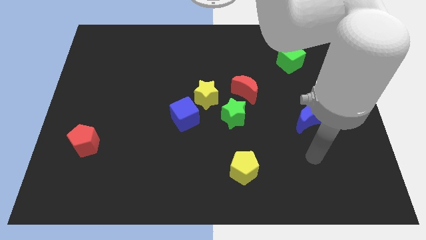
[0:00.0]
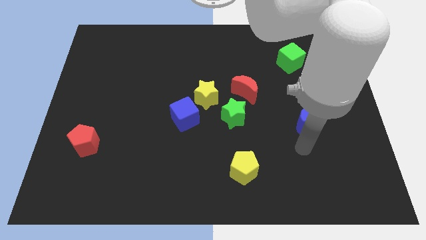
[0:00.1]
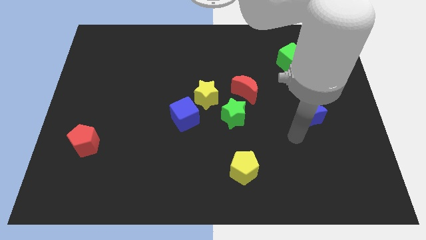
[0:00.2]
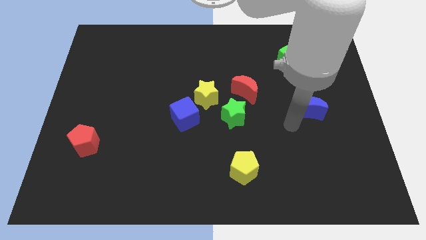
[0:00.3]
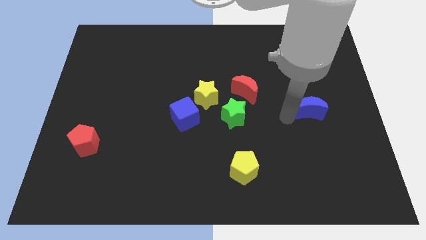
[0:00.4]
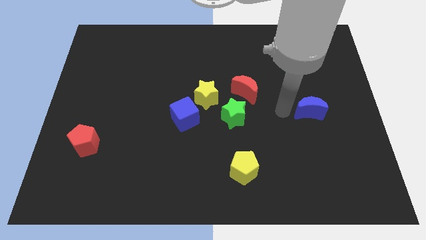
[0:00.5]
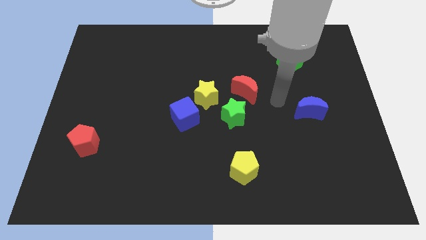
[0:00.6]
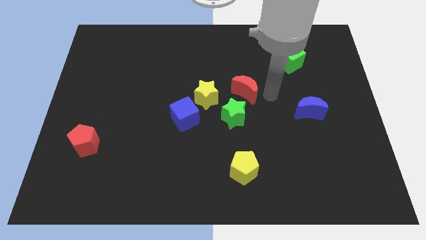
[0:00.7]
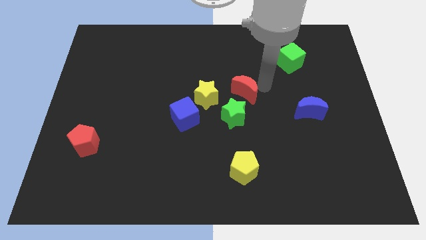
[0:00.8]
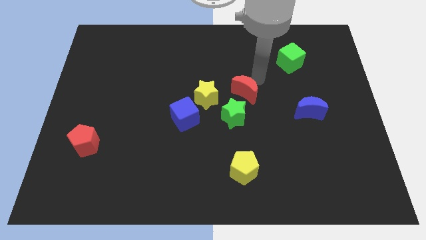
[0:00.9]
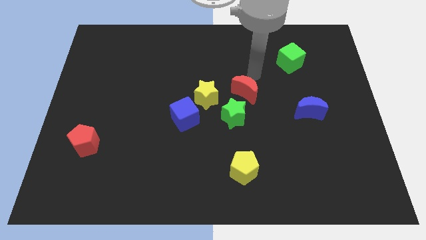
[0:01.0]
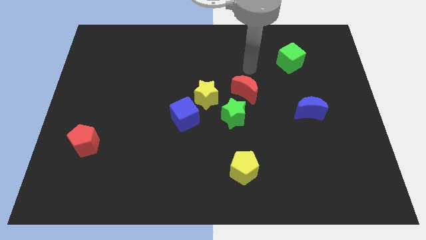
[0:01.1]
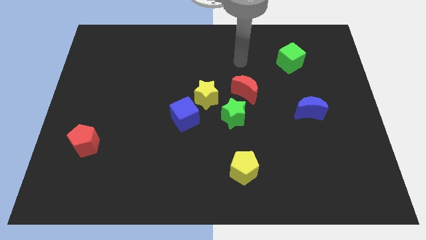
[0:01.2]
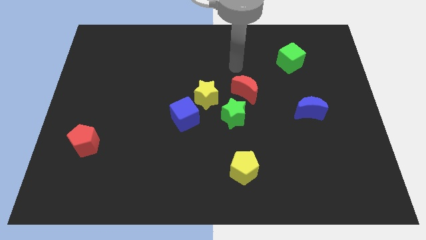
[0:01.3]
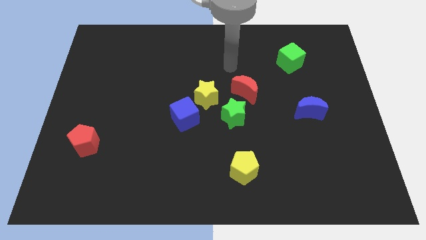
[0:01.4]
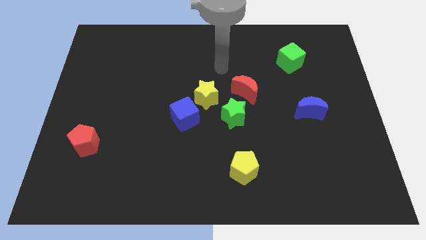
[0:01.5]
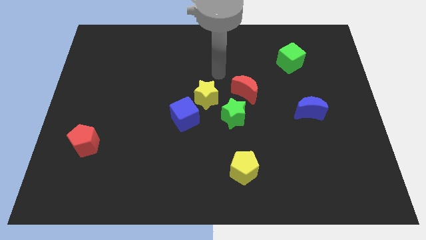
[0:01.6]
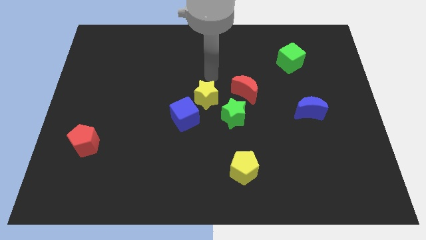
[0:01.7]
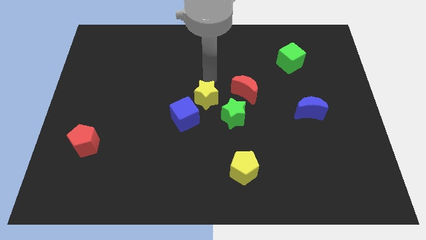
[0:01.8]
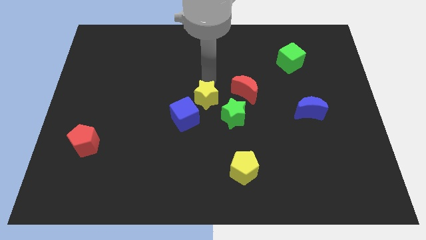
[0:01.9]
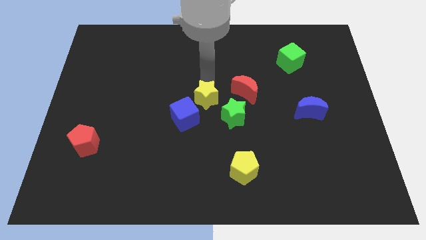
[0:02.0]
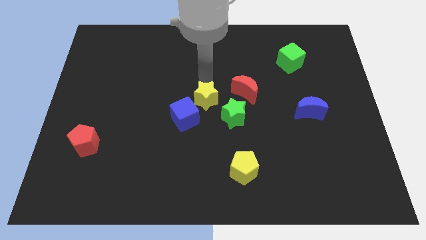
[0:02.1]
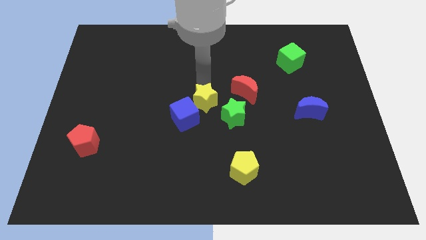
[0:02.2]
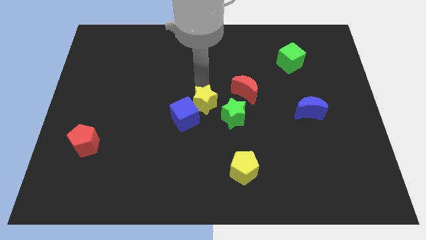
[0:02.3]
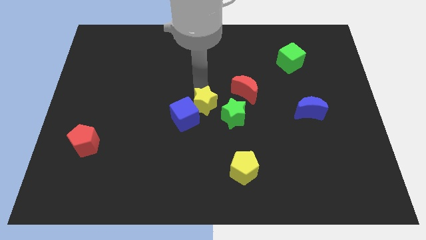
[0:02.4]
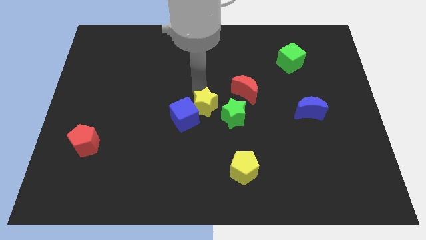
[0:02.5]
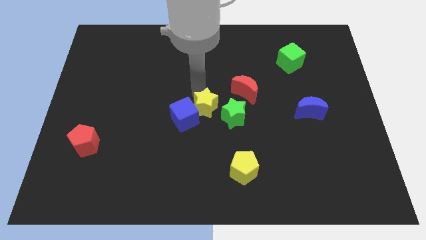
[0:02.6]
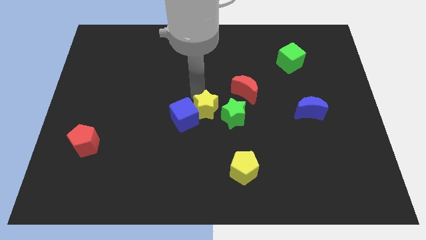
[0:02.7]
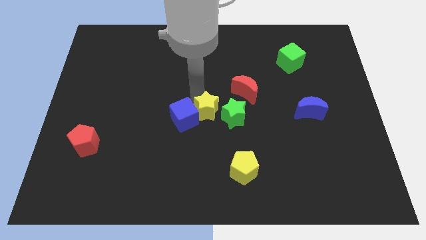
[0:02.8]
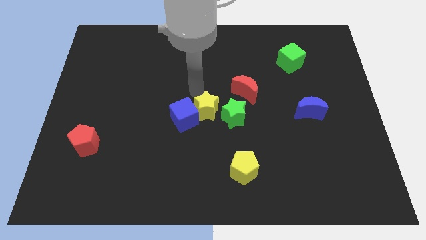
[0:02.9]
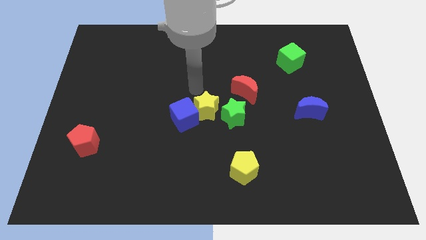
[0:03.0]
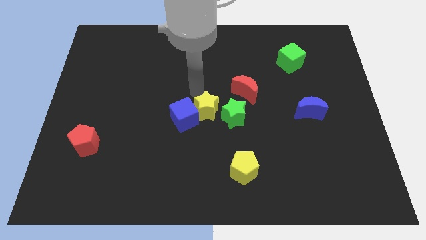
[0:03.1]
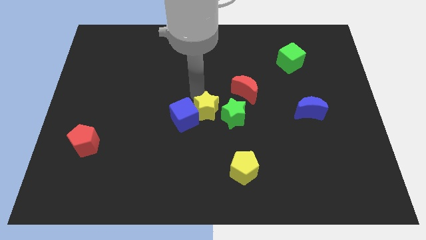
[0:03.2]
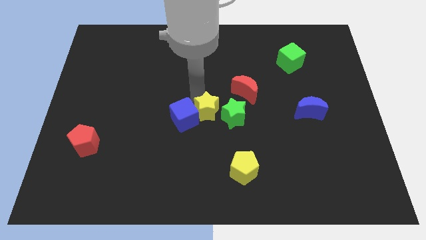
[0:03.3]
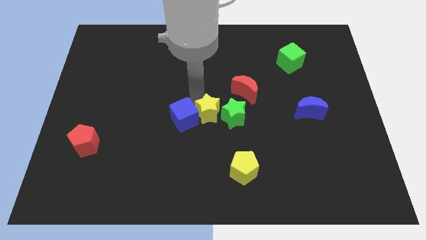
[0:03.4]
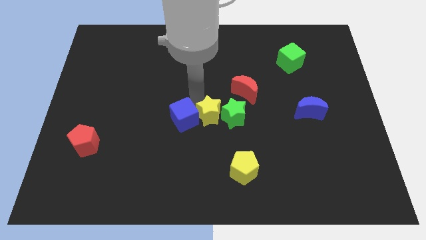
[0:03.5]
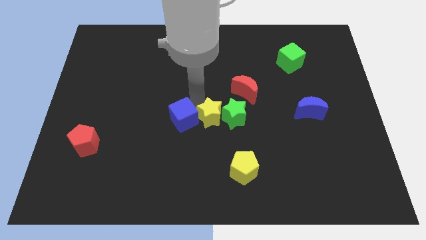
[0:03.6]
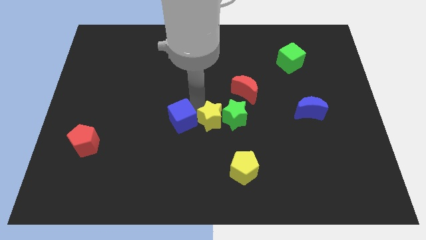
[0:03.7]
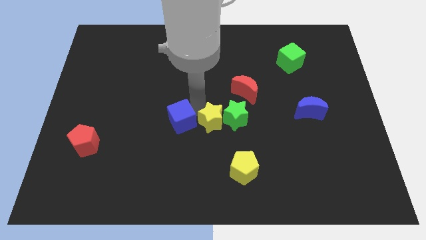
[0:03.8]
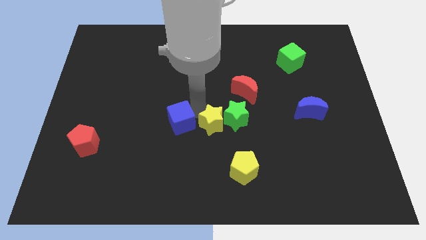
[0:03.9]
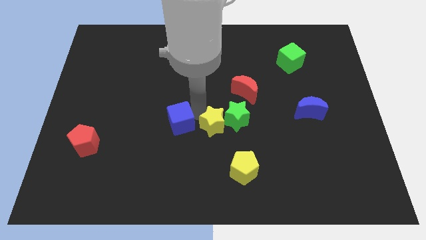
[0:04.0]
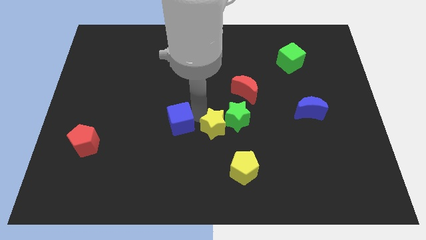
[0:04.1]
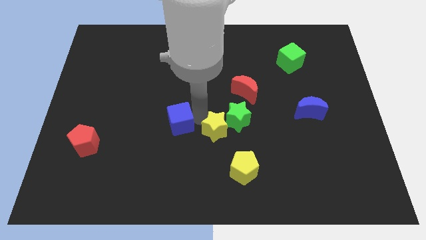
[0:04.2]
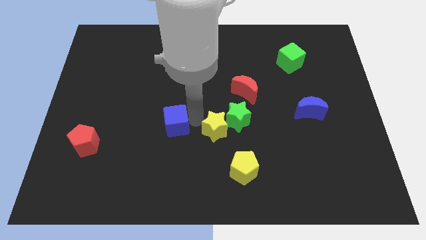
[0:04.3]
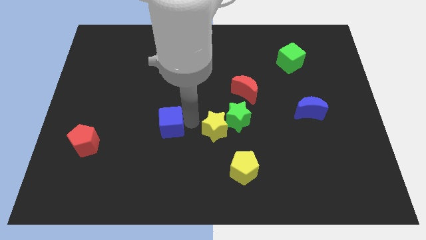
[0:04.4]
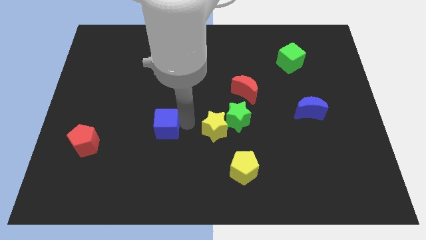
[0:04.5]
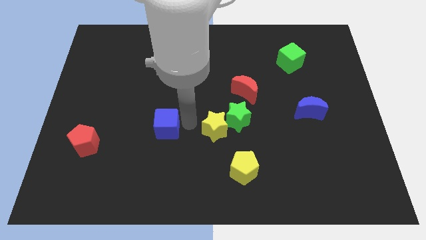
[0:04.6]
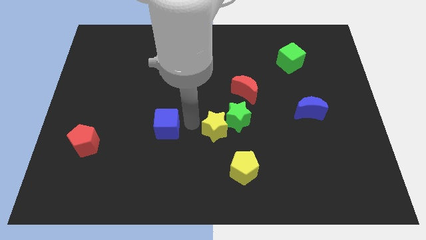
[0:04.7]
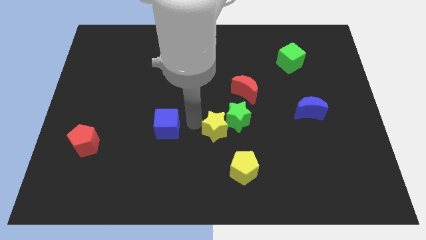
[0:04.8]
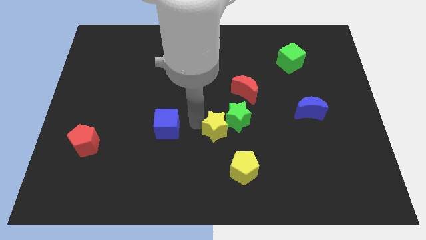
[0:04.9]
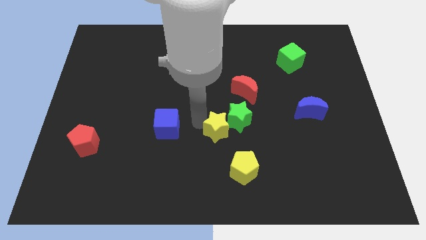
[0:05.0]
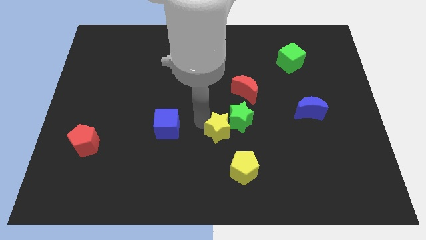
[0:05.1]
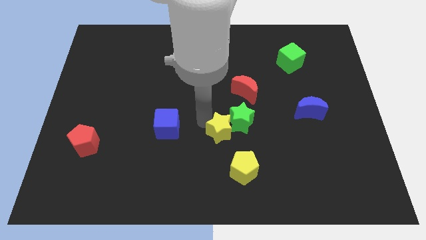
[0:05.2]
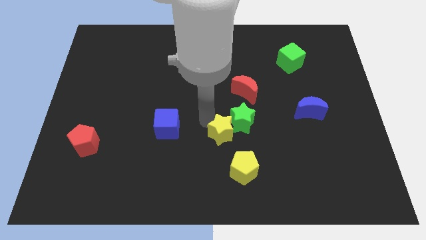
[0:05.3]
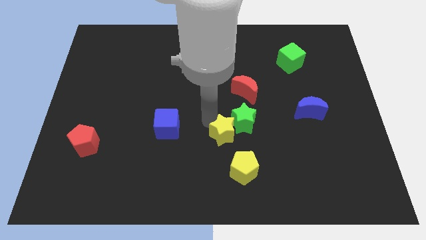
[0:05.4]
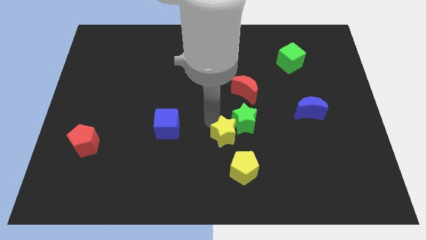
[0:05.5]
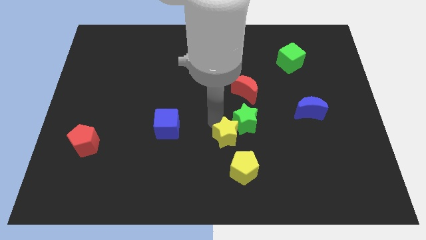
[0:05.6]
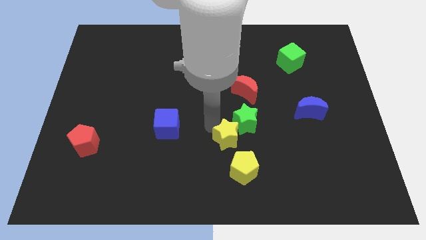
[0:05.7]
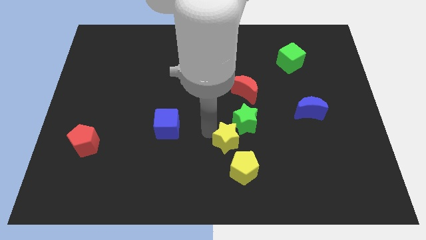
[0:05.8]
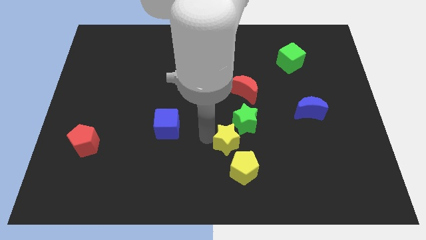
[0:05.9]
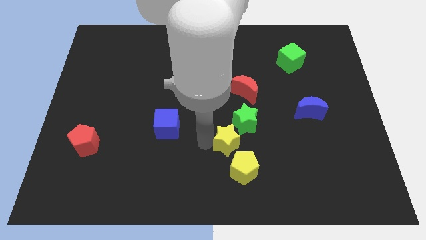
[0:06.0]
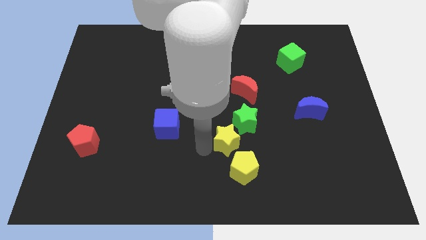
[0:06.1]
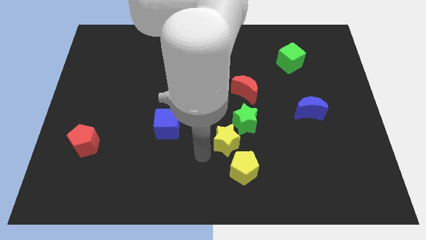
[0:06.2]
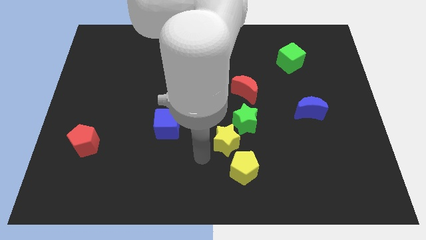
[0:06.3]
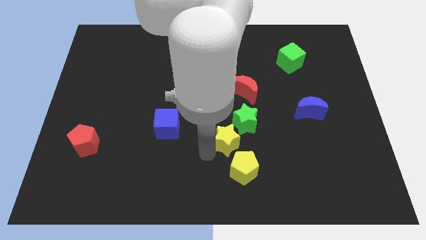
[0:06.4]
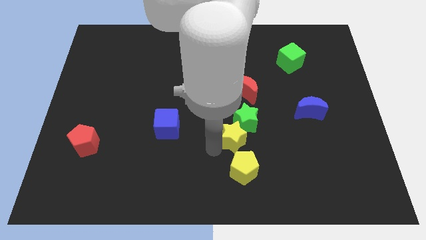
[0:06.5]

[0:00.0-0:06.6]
push the yellow star to the bottom of the red moon

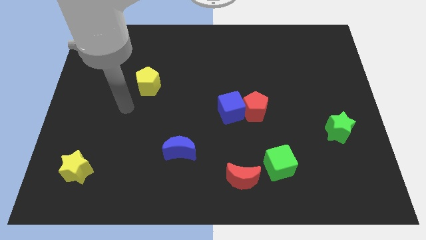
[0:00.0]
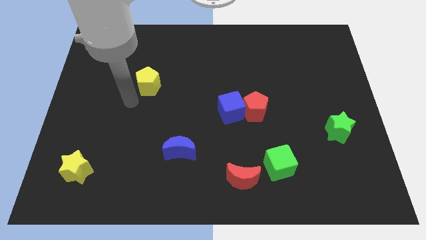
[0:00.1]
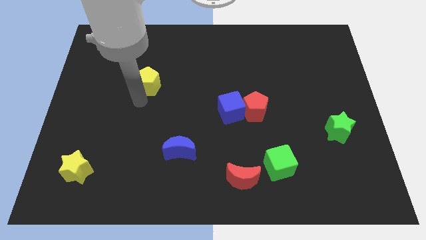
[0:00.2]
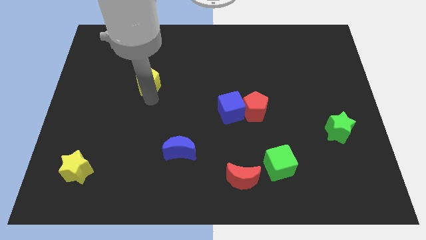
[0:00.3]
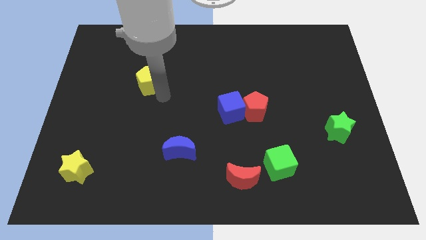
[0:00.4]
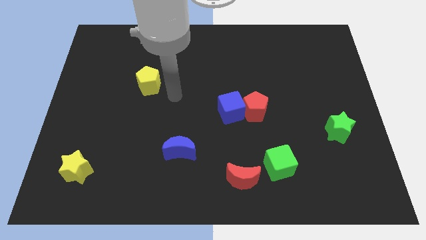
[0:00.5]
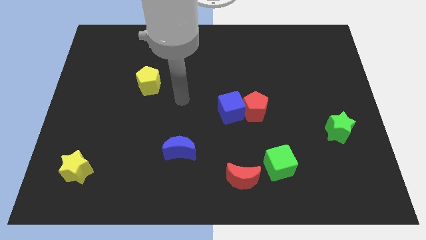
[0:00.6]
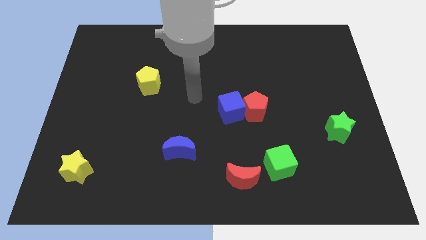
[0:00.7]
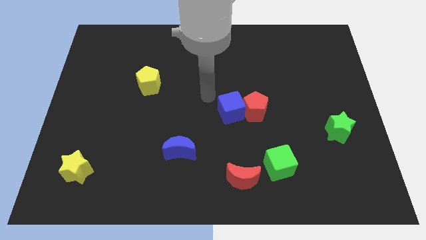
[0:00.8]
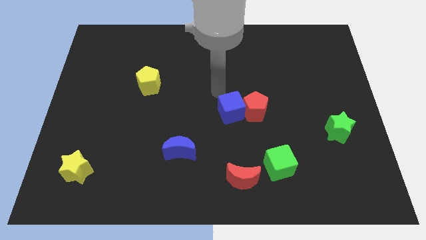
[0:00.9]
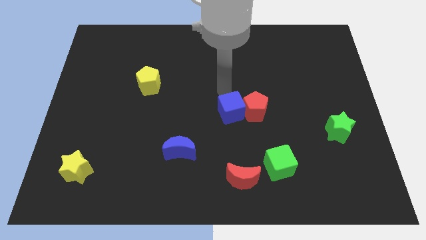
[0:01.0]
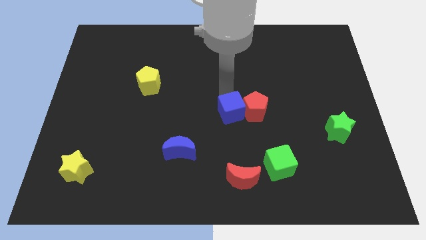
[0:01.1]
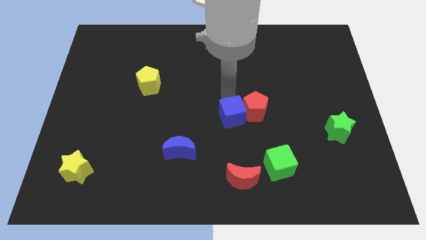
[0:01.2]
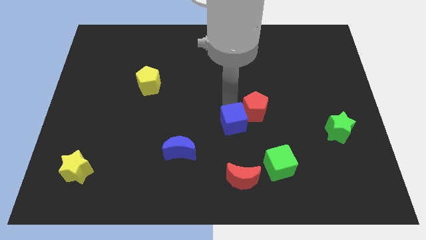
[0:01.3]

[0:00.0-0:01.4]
put the blue cube to the top side of the red moon

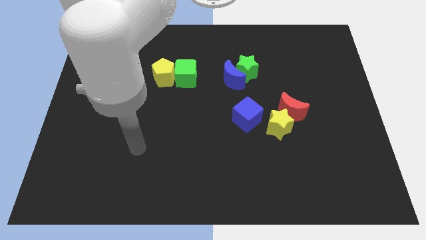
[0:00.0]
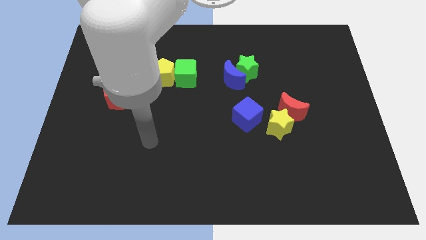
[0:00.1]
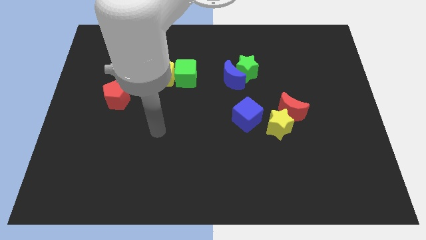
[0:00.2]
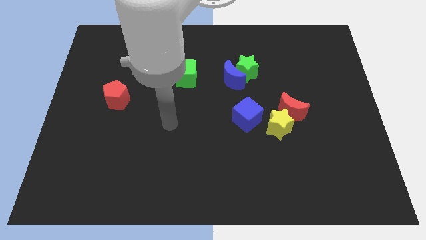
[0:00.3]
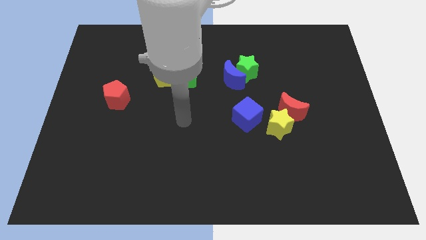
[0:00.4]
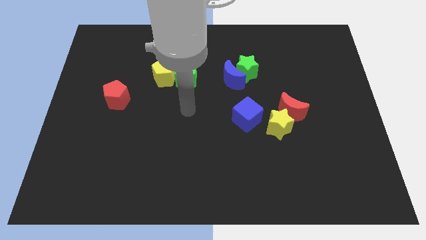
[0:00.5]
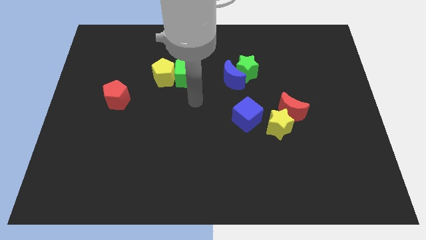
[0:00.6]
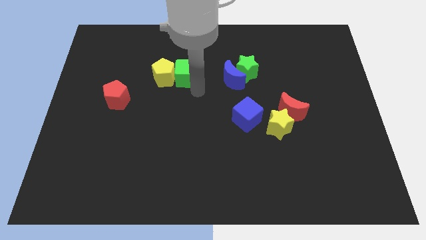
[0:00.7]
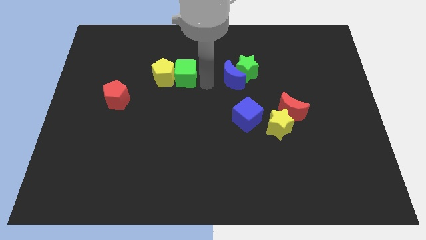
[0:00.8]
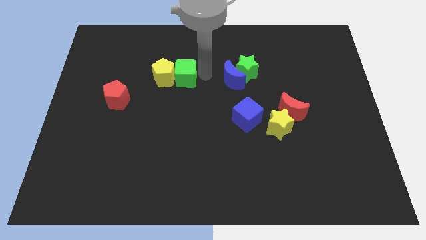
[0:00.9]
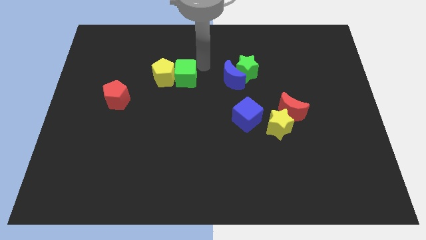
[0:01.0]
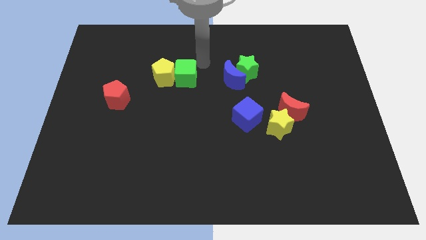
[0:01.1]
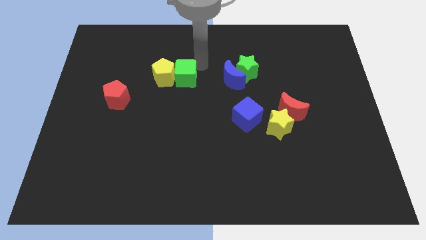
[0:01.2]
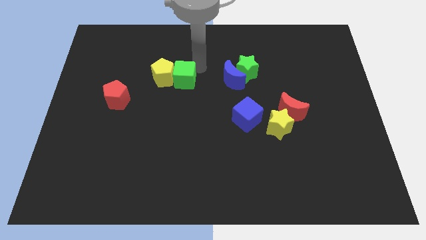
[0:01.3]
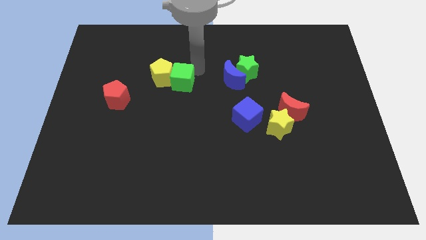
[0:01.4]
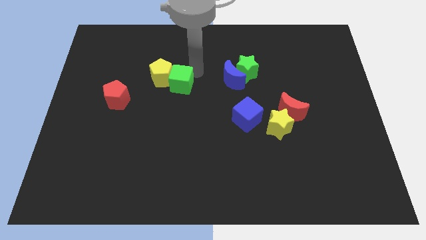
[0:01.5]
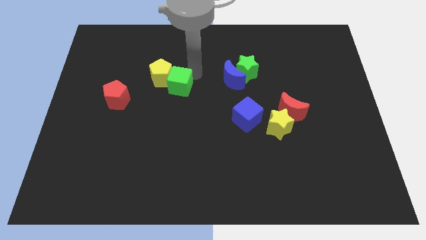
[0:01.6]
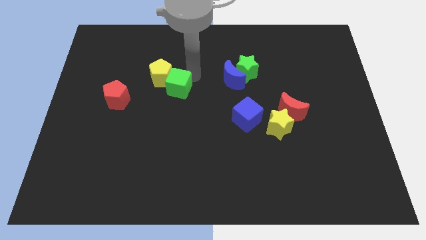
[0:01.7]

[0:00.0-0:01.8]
slide the green cube right of the red pentagon
